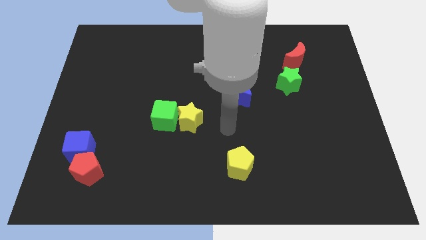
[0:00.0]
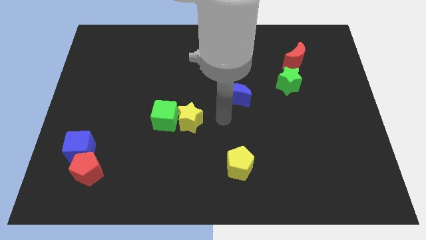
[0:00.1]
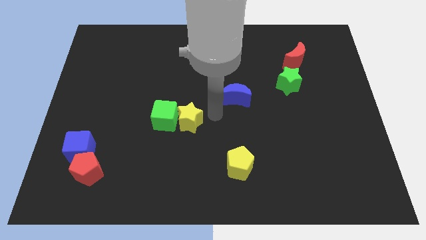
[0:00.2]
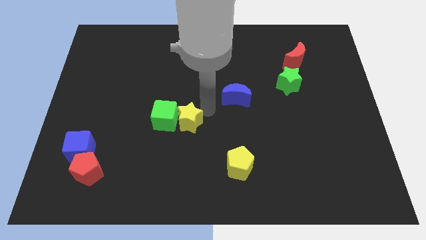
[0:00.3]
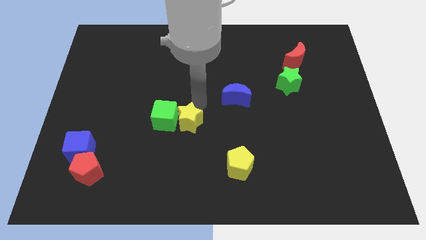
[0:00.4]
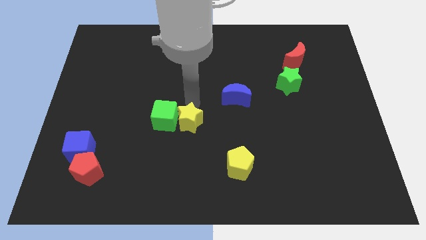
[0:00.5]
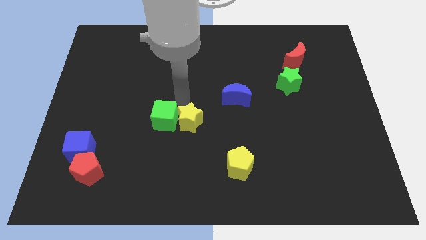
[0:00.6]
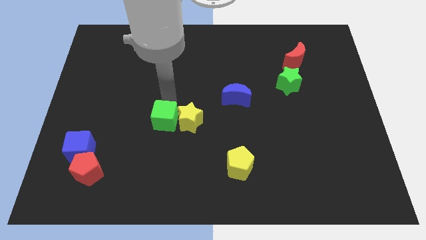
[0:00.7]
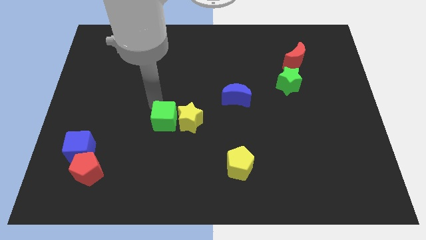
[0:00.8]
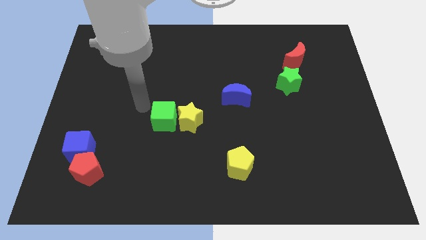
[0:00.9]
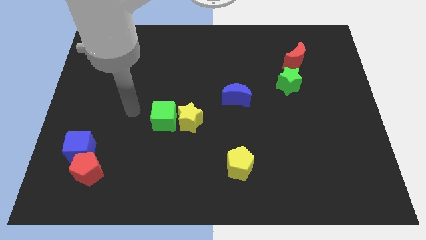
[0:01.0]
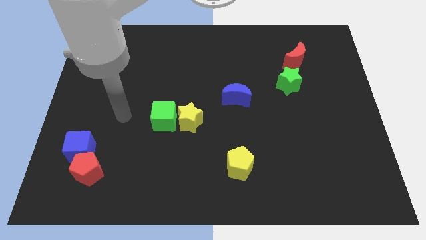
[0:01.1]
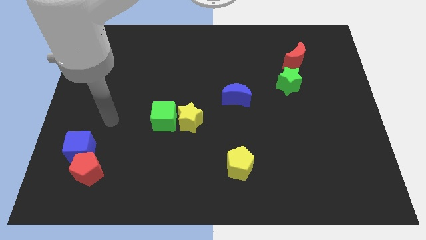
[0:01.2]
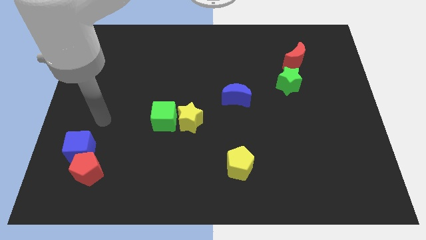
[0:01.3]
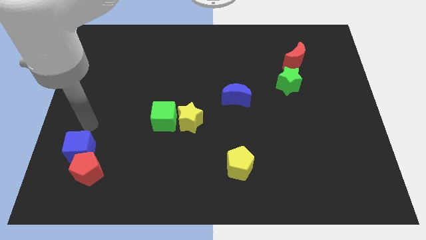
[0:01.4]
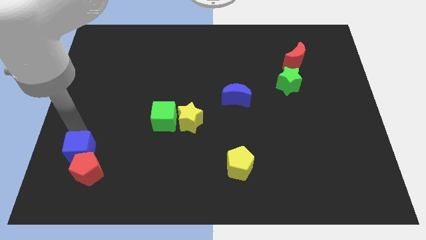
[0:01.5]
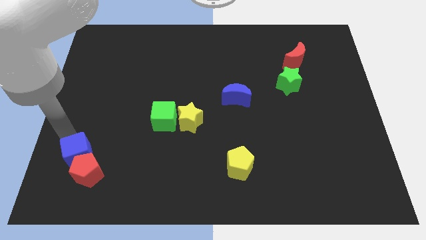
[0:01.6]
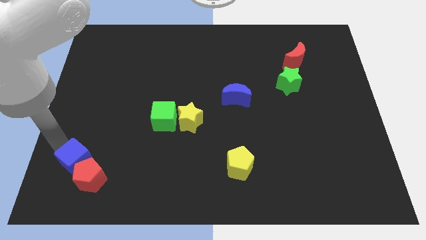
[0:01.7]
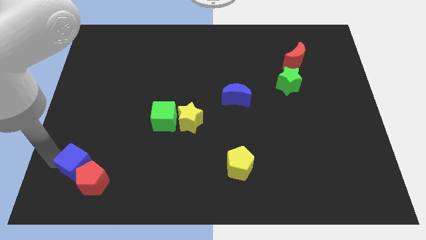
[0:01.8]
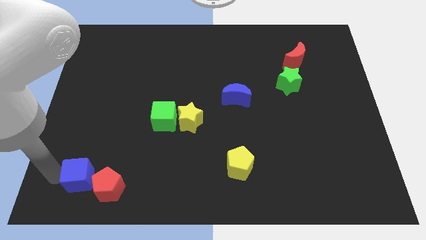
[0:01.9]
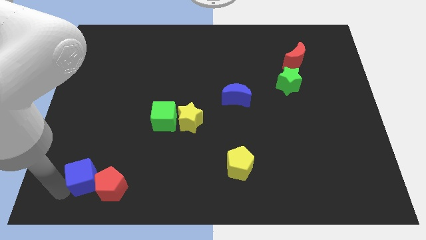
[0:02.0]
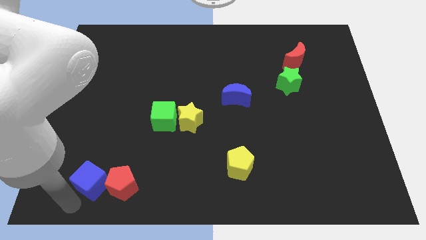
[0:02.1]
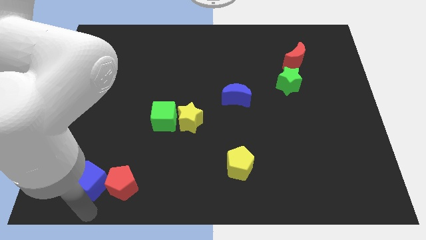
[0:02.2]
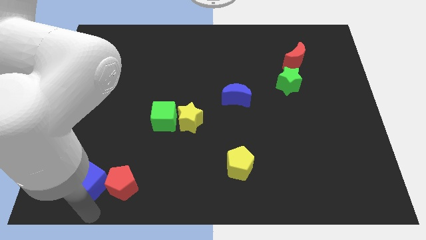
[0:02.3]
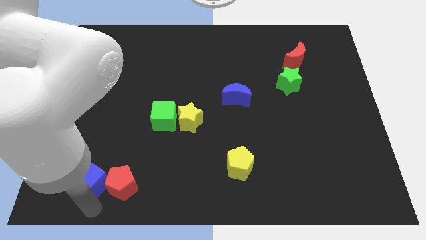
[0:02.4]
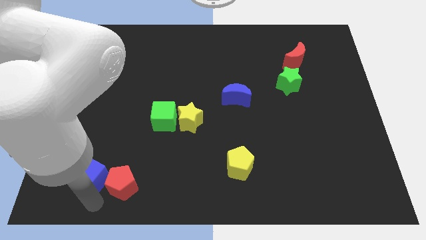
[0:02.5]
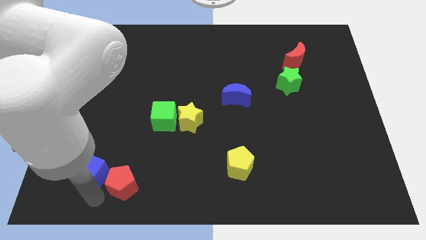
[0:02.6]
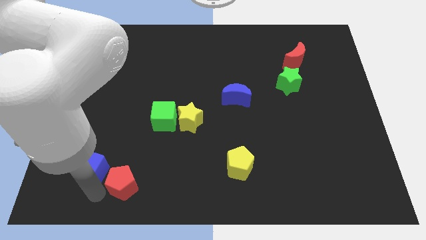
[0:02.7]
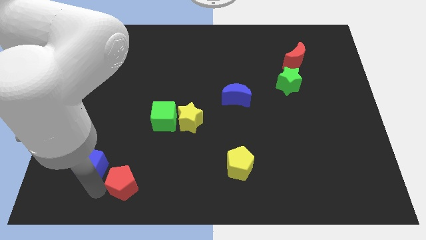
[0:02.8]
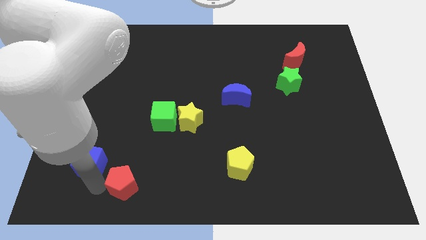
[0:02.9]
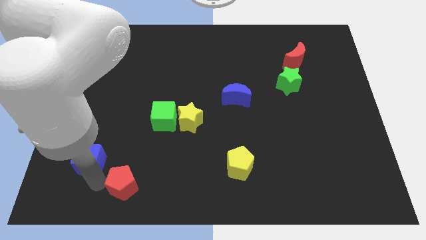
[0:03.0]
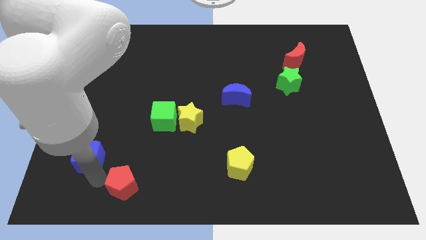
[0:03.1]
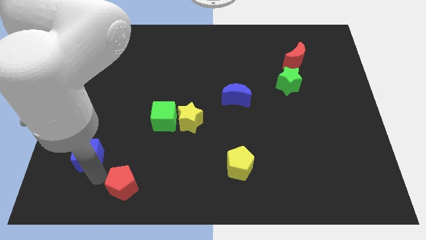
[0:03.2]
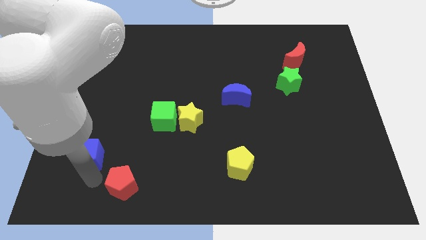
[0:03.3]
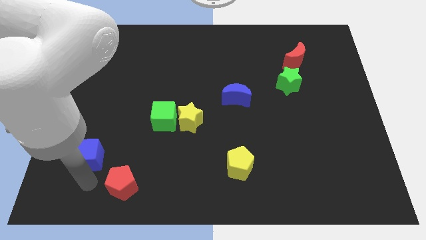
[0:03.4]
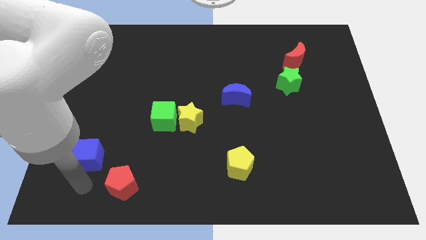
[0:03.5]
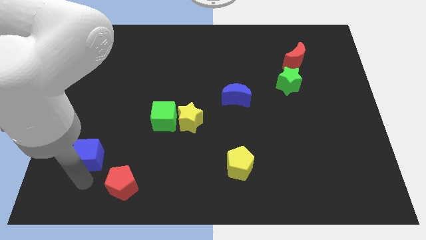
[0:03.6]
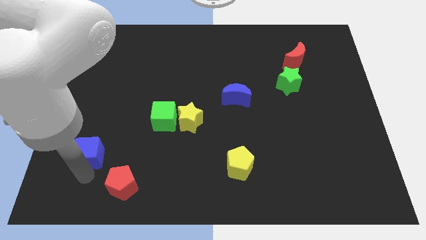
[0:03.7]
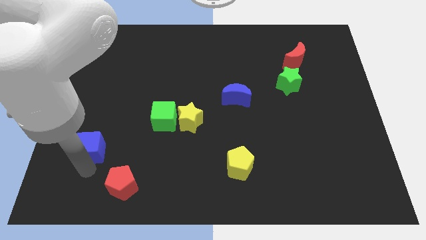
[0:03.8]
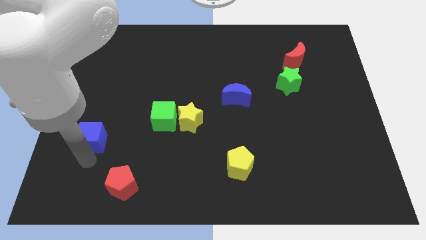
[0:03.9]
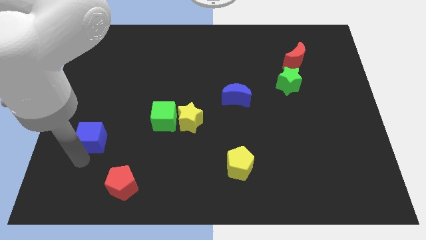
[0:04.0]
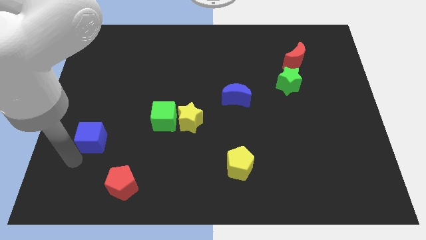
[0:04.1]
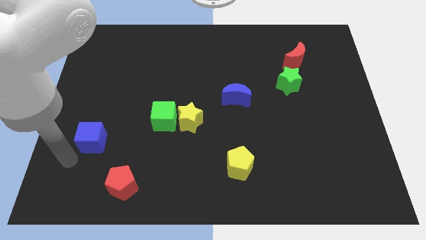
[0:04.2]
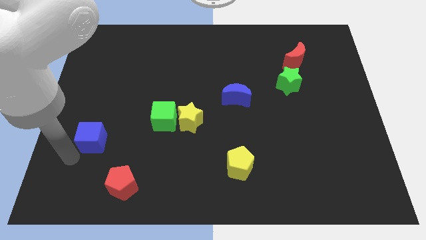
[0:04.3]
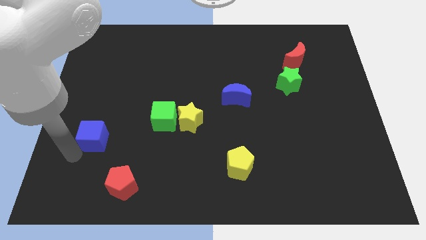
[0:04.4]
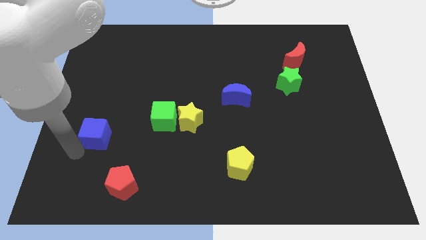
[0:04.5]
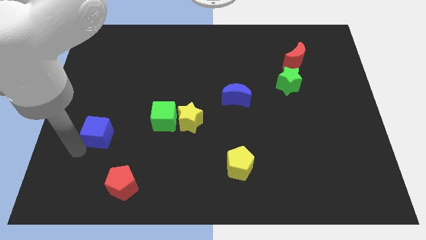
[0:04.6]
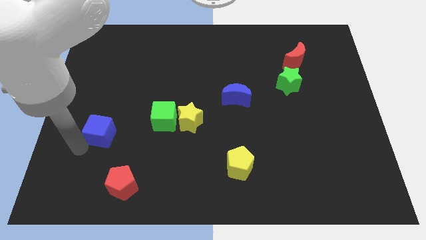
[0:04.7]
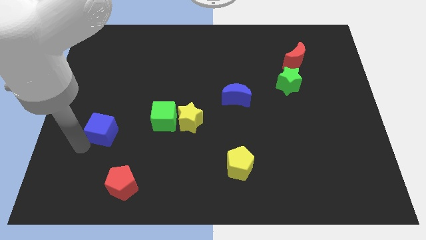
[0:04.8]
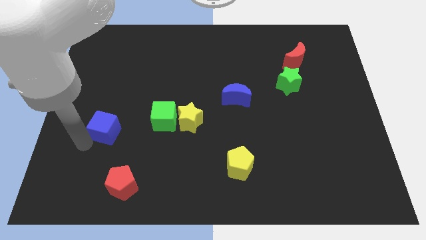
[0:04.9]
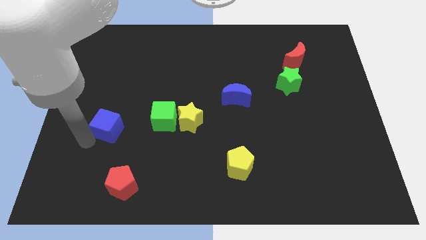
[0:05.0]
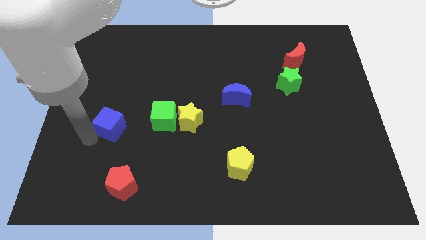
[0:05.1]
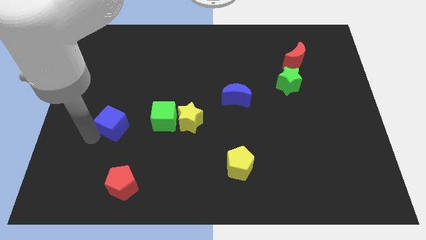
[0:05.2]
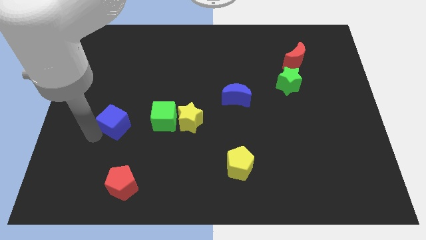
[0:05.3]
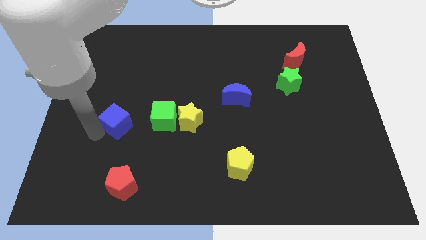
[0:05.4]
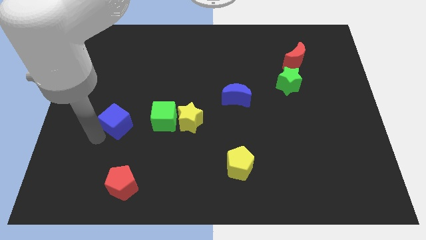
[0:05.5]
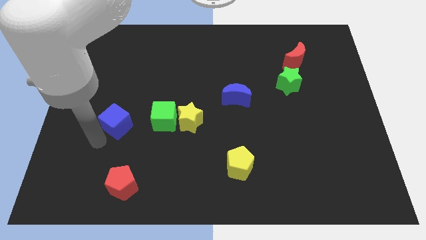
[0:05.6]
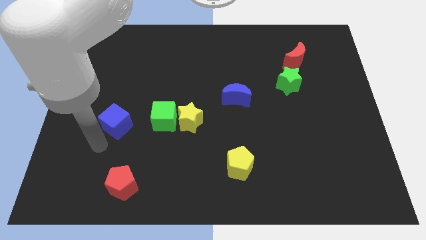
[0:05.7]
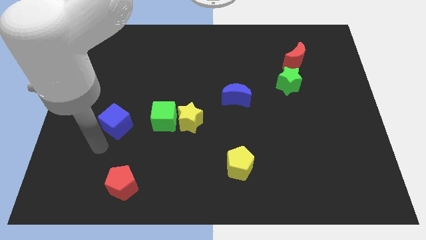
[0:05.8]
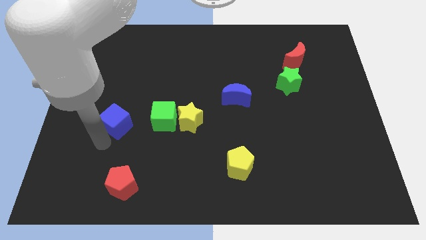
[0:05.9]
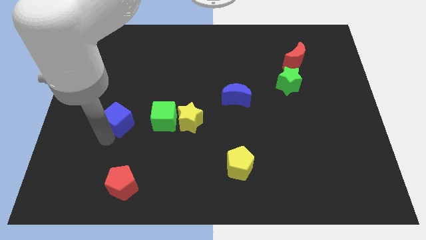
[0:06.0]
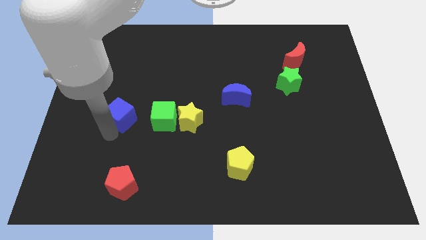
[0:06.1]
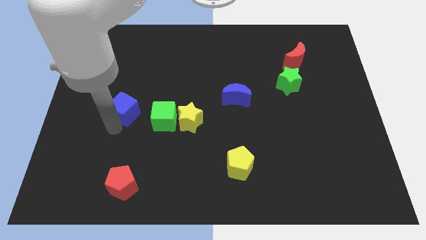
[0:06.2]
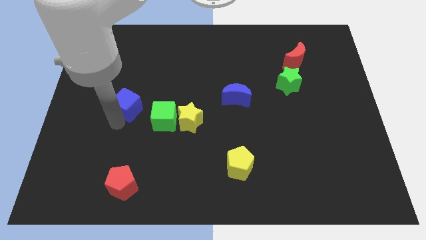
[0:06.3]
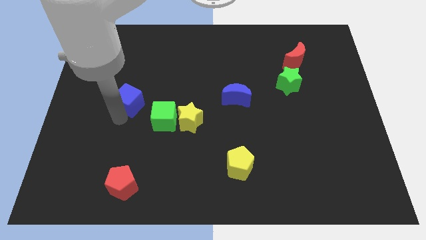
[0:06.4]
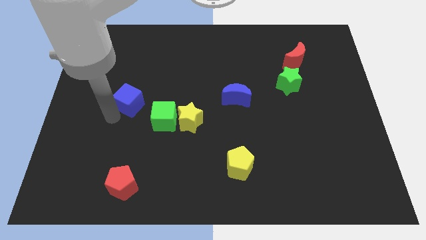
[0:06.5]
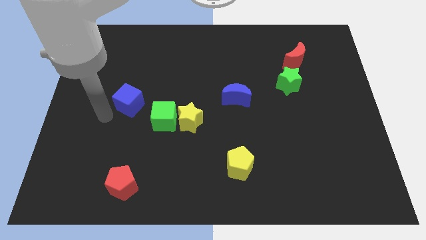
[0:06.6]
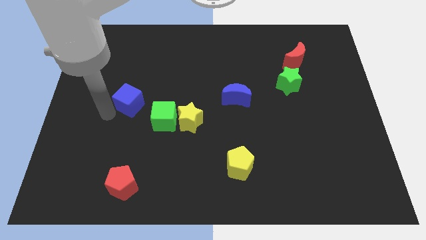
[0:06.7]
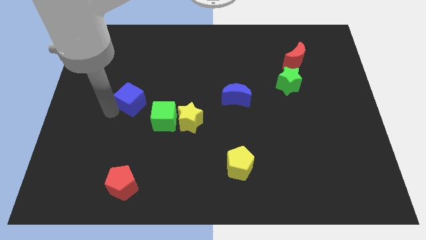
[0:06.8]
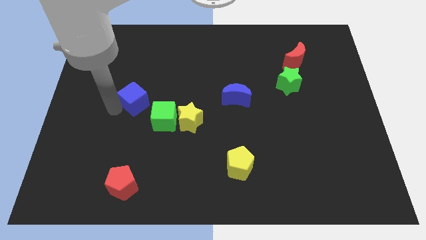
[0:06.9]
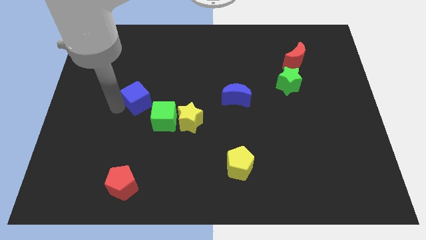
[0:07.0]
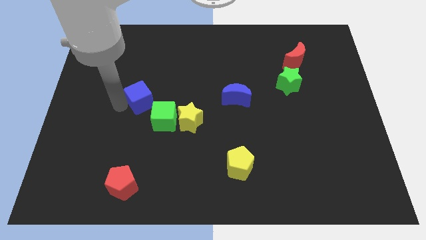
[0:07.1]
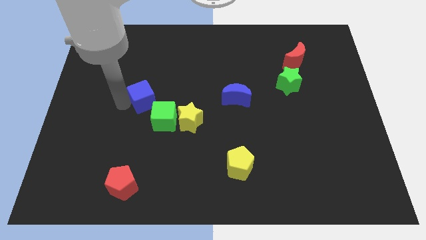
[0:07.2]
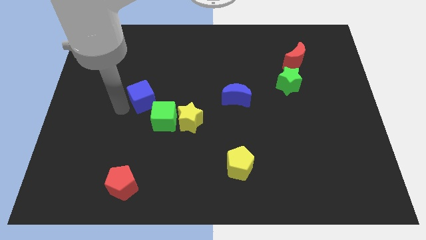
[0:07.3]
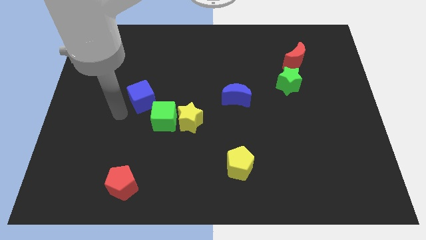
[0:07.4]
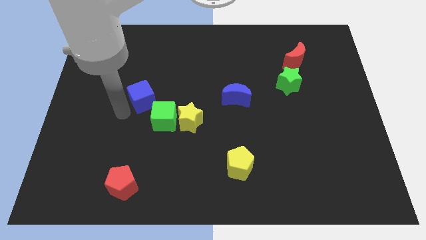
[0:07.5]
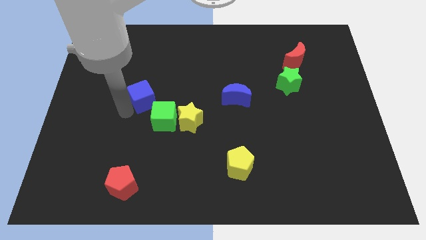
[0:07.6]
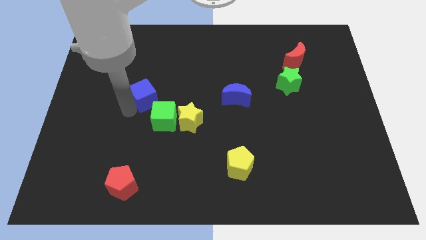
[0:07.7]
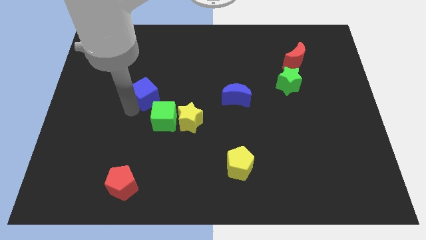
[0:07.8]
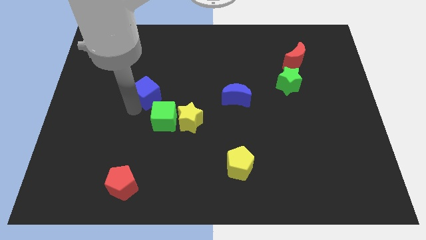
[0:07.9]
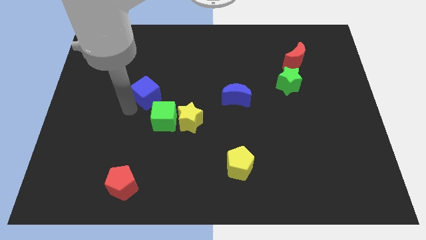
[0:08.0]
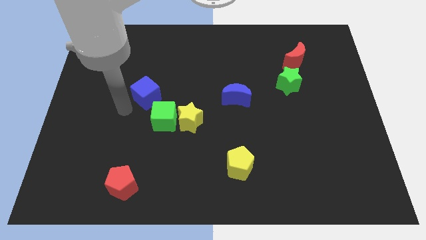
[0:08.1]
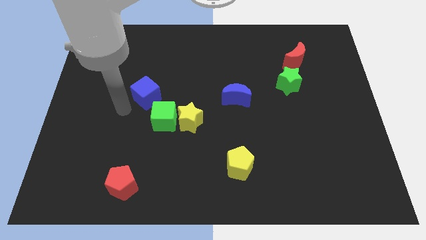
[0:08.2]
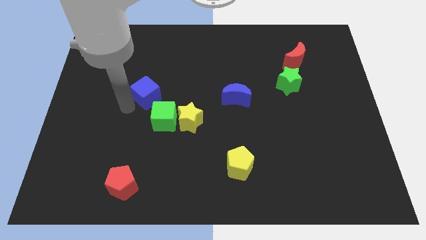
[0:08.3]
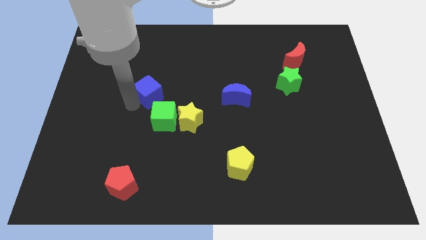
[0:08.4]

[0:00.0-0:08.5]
push the blue cube upwards and then to the right
